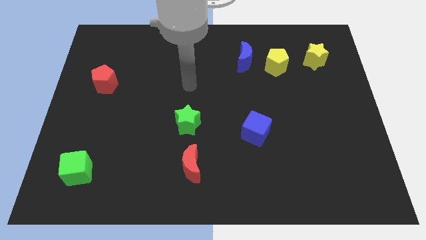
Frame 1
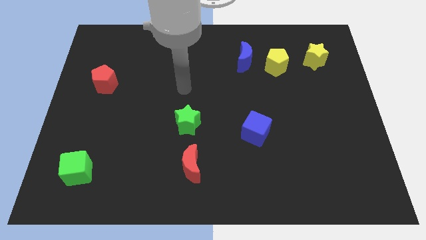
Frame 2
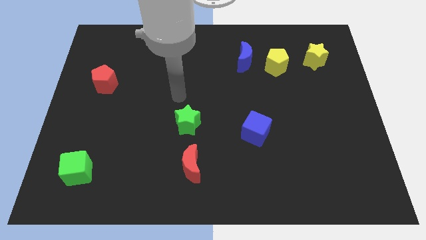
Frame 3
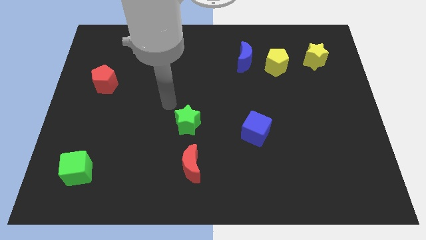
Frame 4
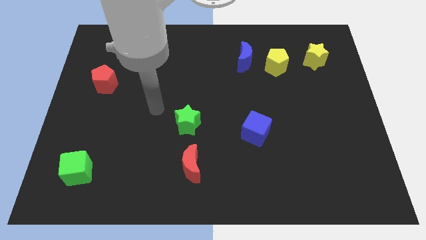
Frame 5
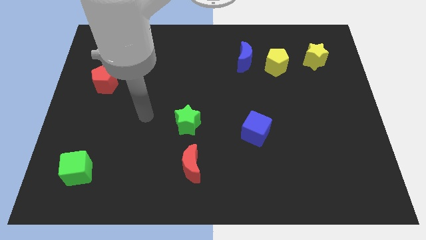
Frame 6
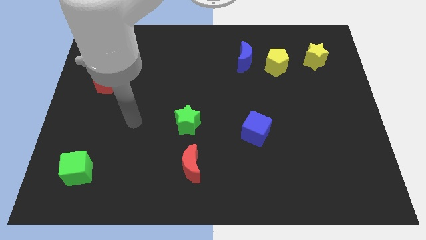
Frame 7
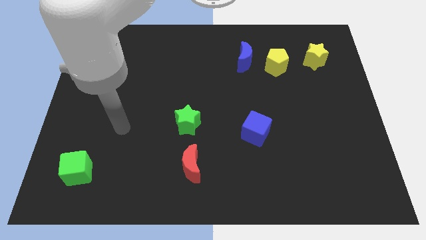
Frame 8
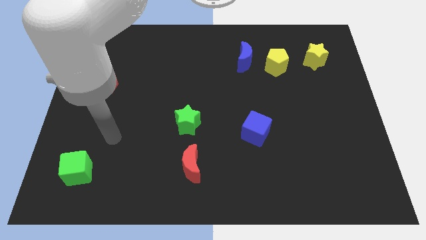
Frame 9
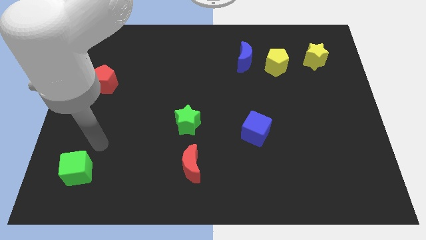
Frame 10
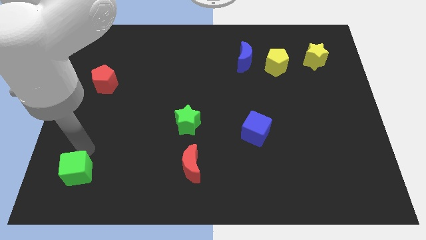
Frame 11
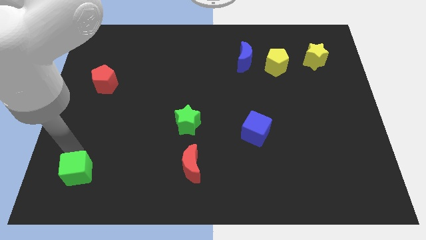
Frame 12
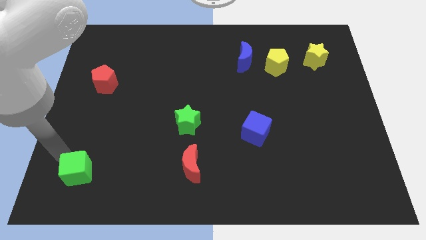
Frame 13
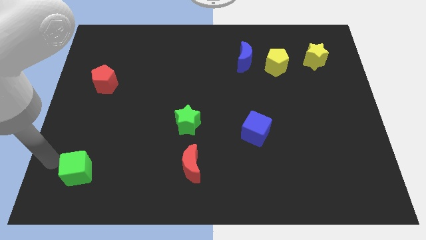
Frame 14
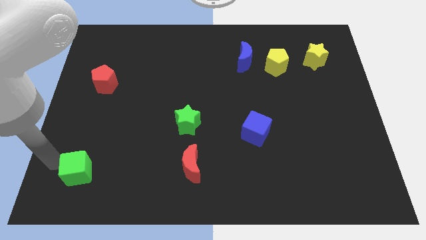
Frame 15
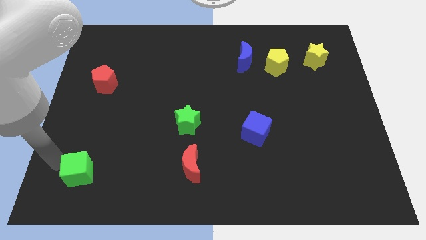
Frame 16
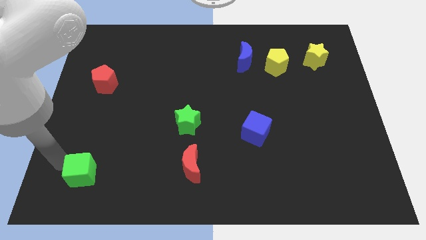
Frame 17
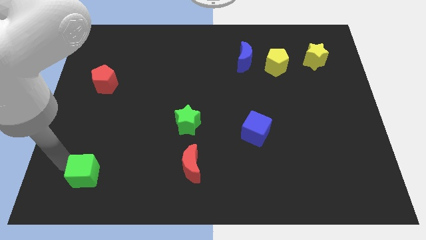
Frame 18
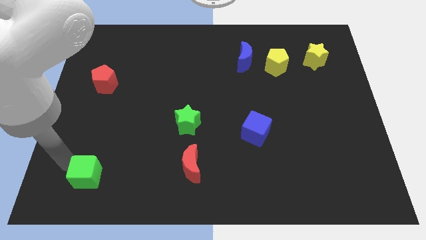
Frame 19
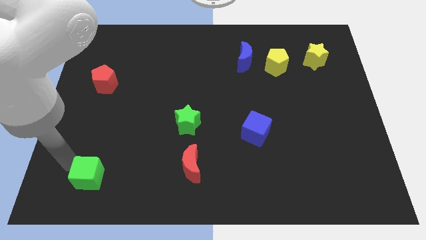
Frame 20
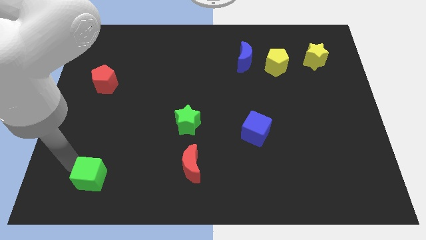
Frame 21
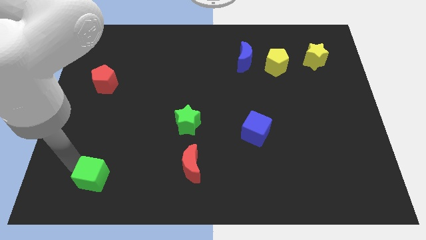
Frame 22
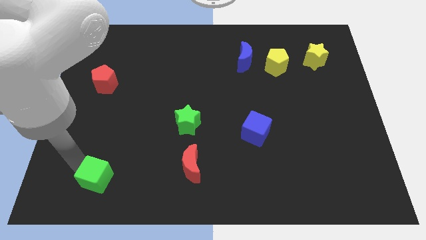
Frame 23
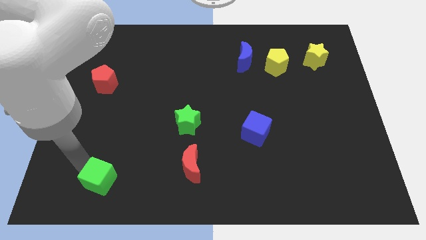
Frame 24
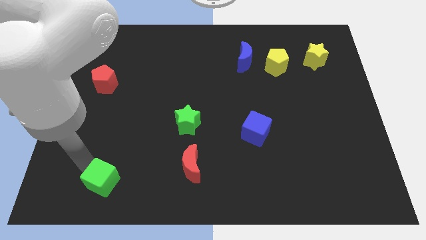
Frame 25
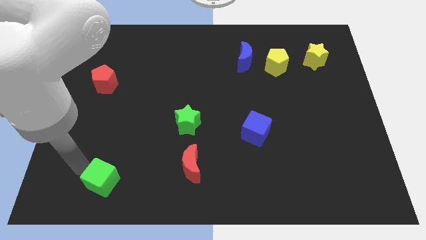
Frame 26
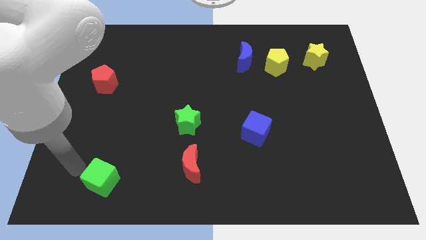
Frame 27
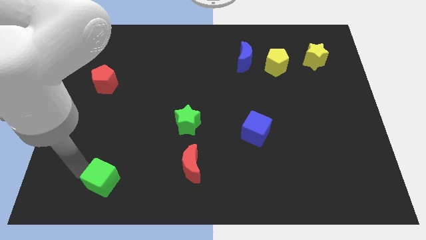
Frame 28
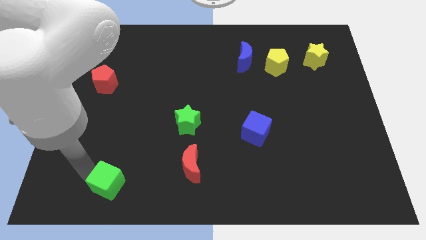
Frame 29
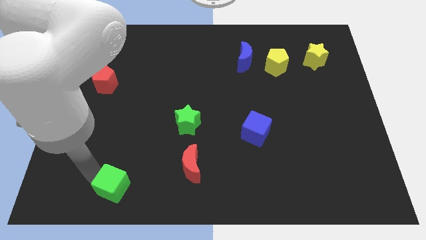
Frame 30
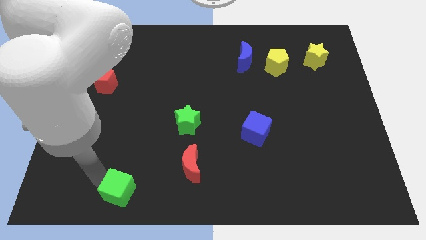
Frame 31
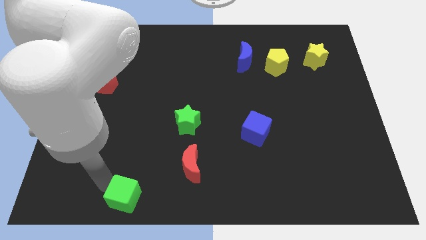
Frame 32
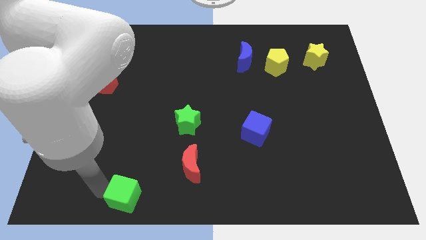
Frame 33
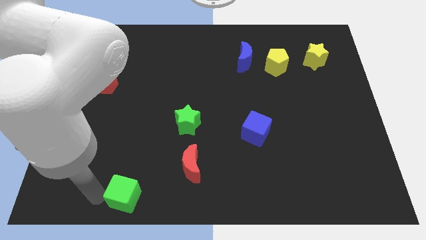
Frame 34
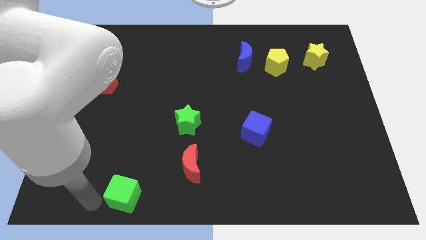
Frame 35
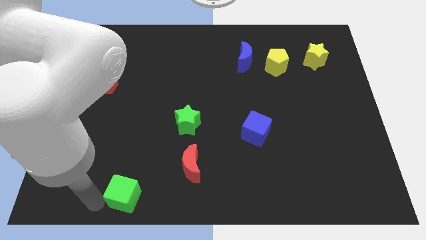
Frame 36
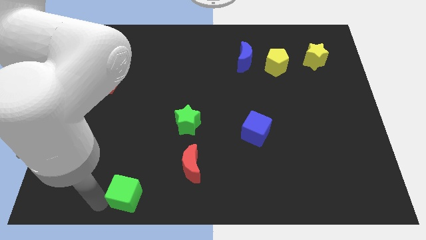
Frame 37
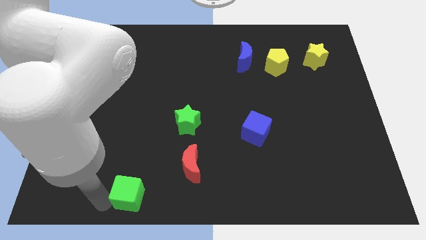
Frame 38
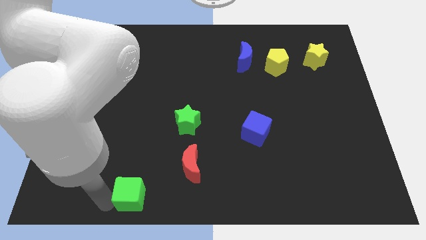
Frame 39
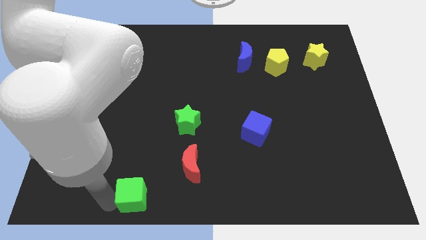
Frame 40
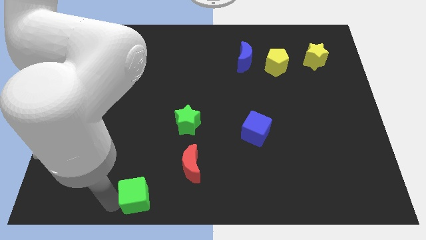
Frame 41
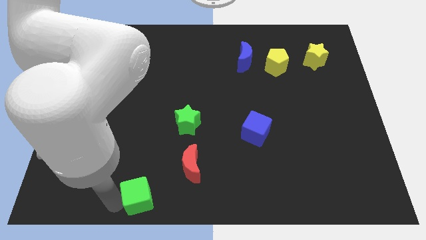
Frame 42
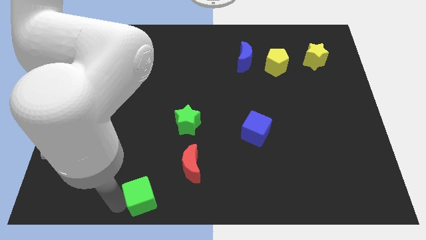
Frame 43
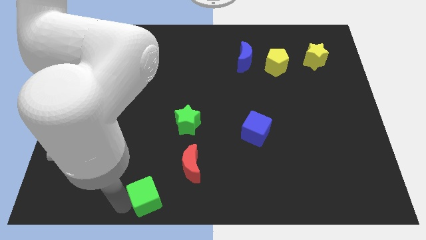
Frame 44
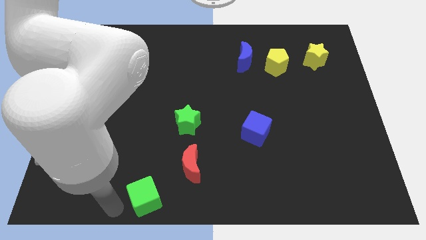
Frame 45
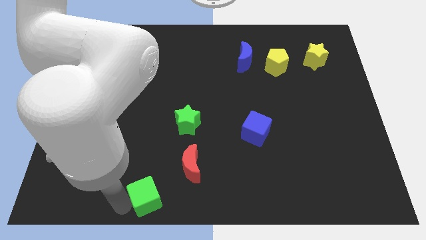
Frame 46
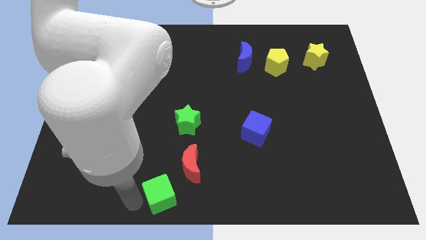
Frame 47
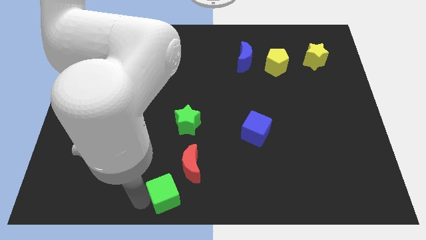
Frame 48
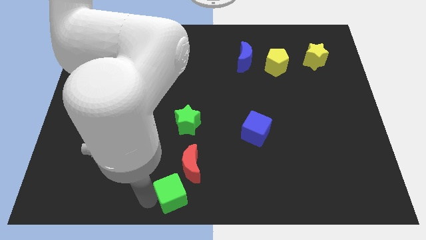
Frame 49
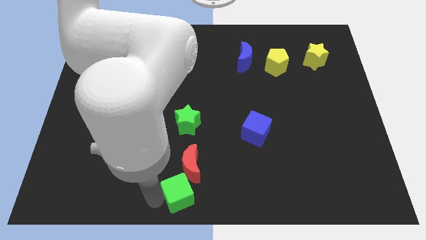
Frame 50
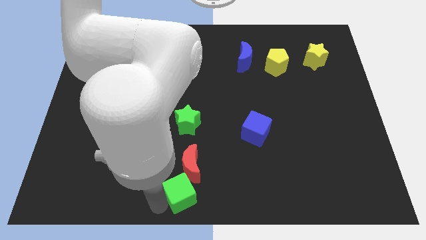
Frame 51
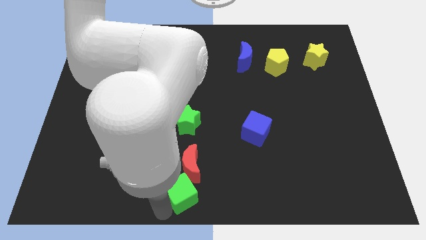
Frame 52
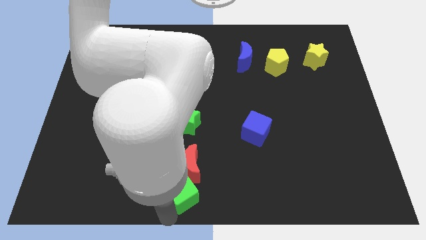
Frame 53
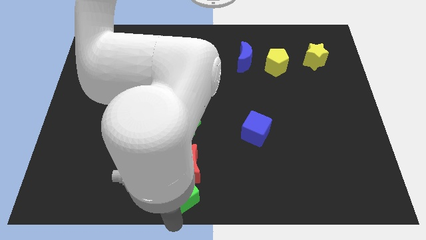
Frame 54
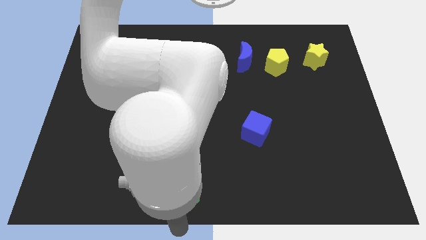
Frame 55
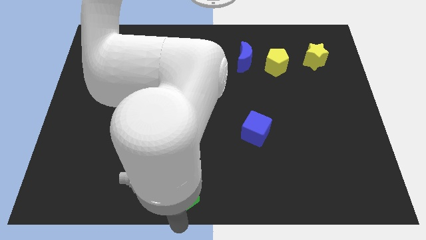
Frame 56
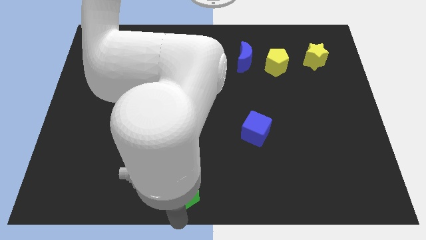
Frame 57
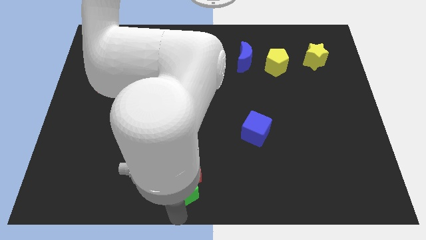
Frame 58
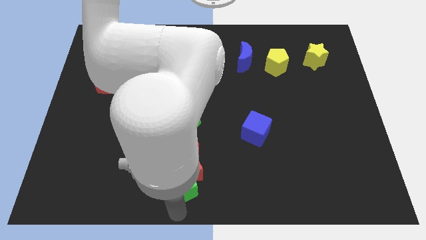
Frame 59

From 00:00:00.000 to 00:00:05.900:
put the green cube to the bottom side of the green star

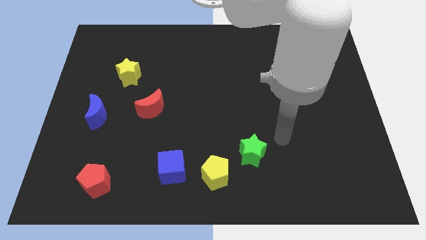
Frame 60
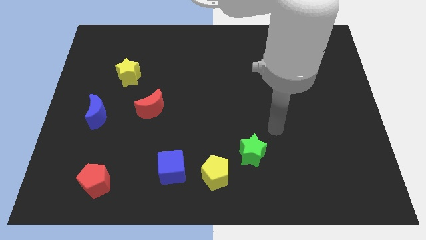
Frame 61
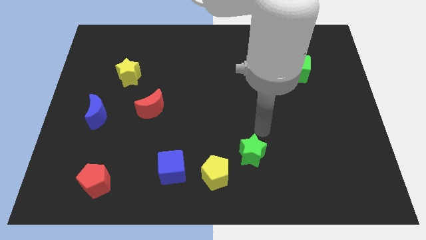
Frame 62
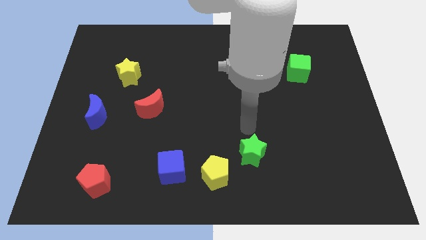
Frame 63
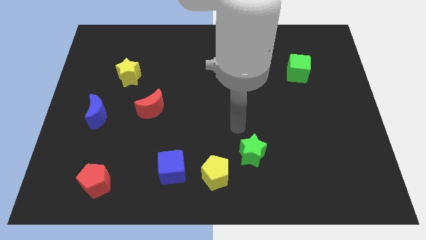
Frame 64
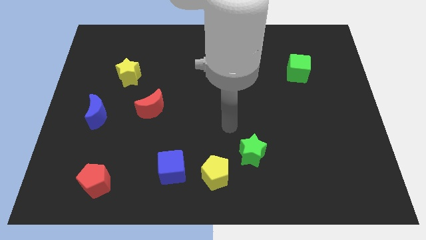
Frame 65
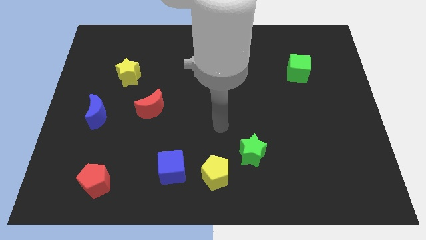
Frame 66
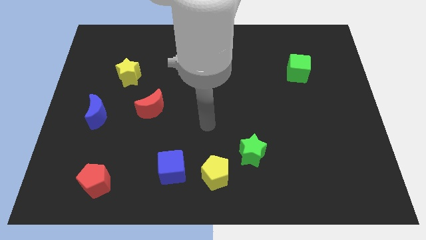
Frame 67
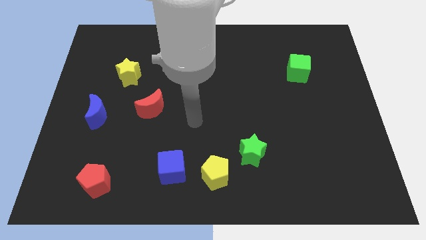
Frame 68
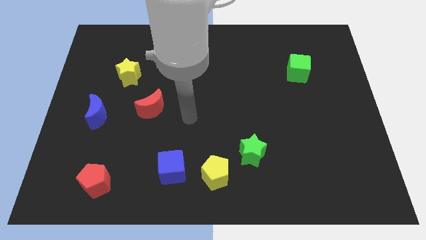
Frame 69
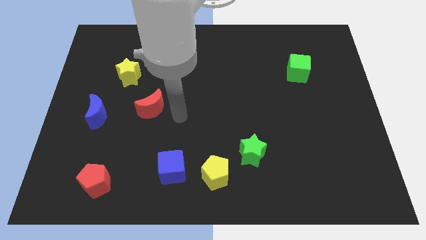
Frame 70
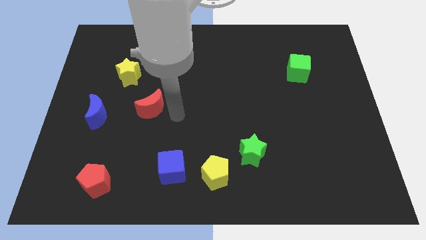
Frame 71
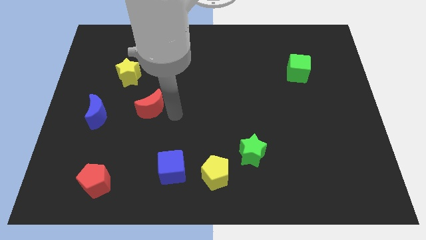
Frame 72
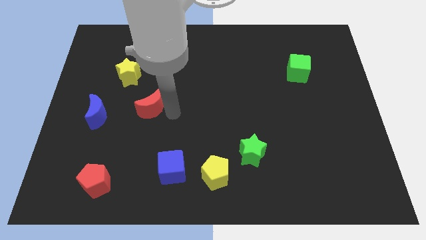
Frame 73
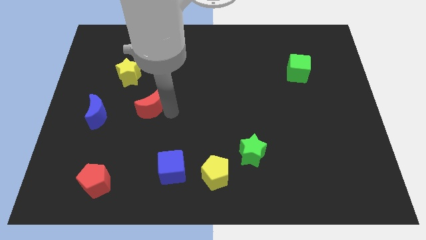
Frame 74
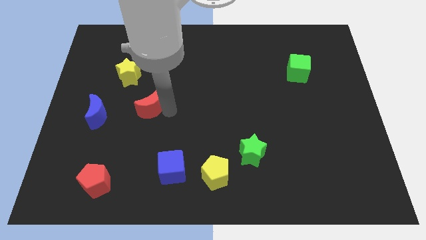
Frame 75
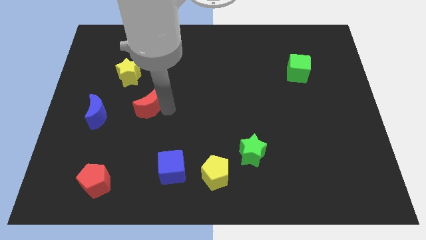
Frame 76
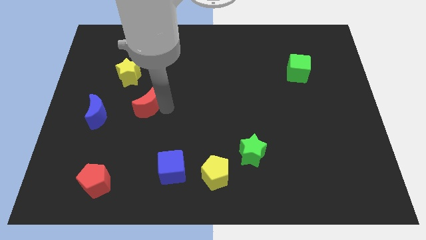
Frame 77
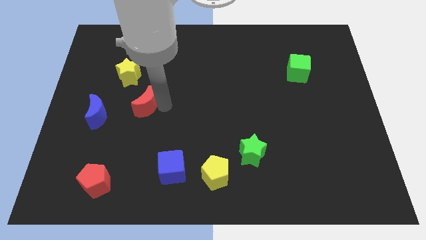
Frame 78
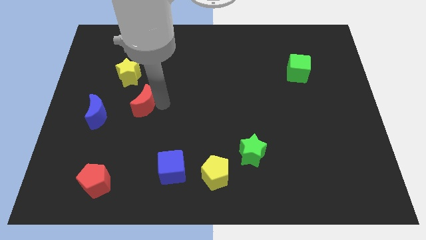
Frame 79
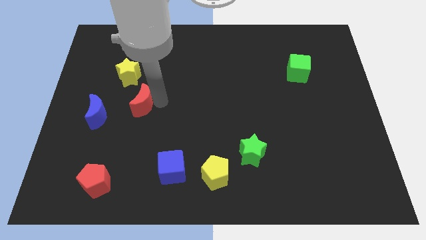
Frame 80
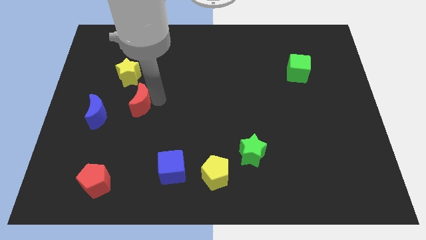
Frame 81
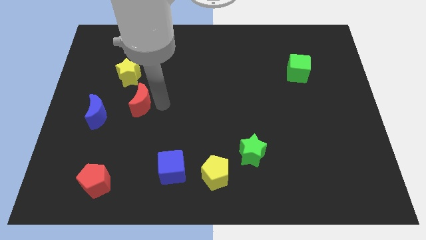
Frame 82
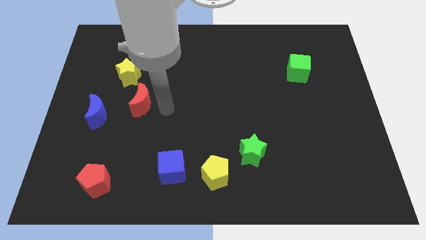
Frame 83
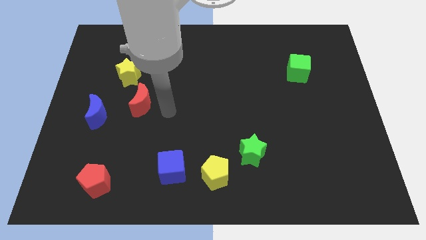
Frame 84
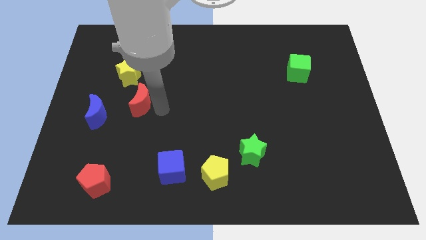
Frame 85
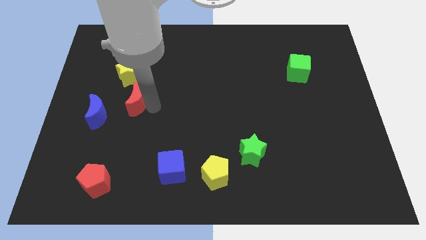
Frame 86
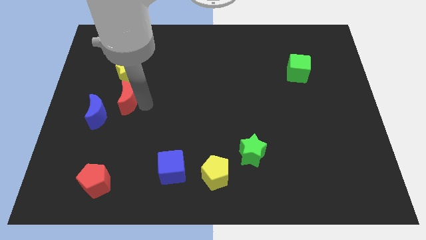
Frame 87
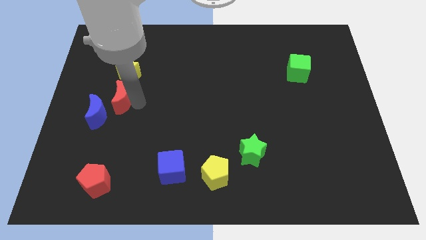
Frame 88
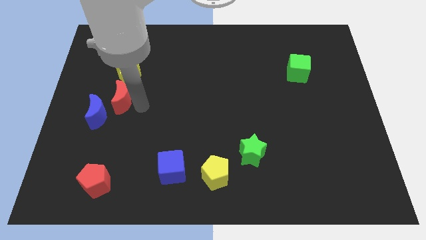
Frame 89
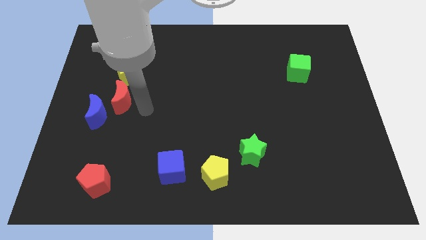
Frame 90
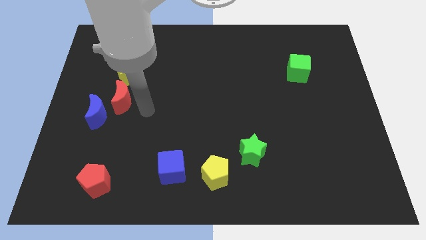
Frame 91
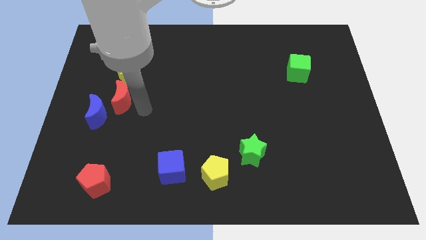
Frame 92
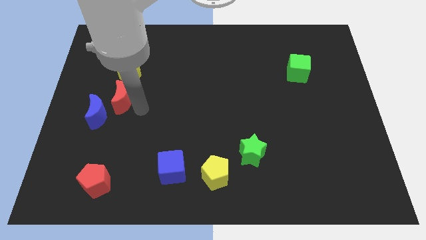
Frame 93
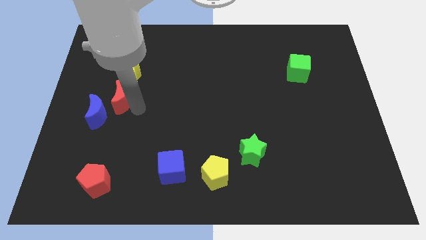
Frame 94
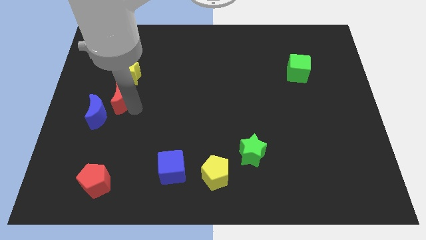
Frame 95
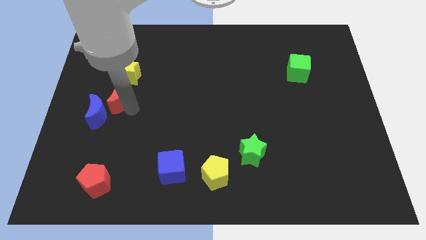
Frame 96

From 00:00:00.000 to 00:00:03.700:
move the red moon to the bottom left side of the yellow star
